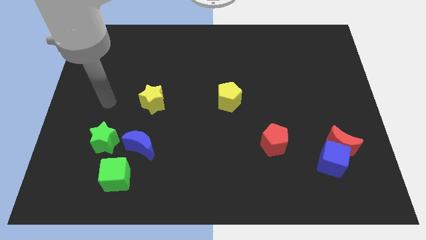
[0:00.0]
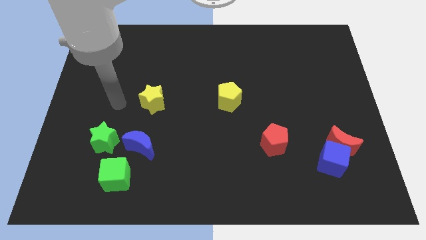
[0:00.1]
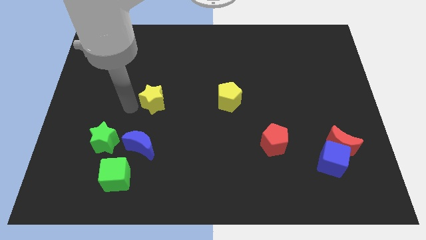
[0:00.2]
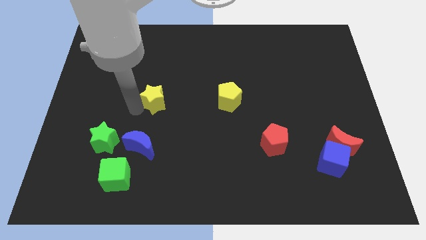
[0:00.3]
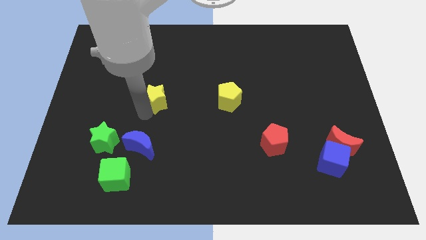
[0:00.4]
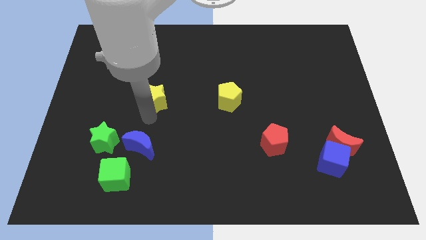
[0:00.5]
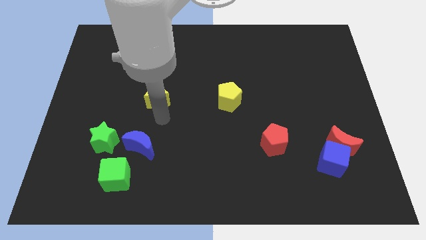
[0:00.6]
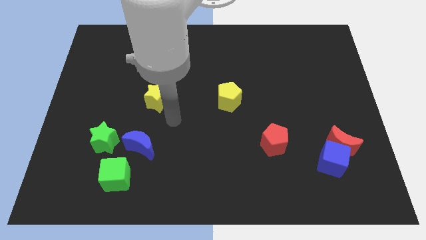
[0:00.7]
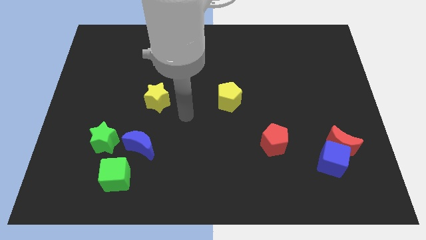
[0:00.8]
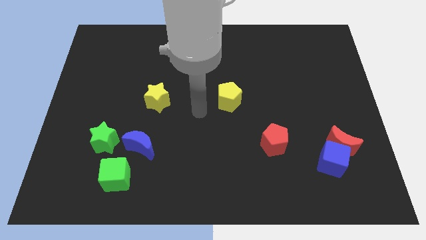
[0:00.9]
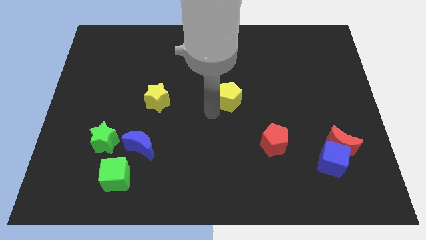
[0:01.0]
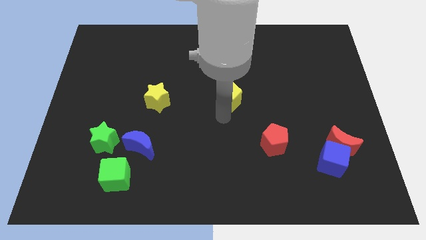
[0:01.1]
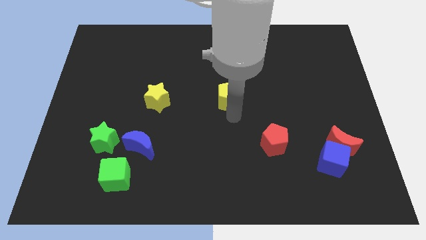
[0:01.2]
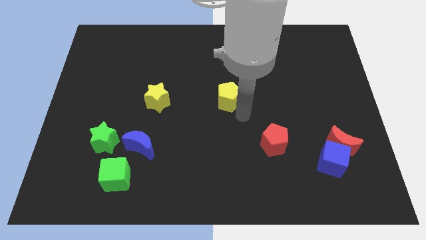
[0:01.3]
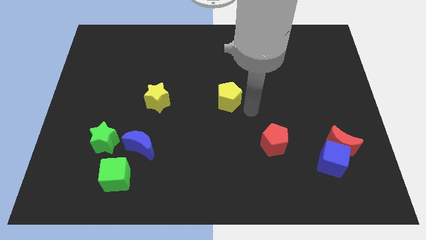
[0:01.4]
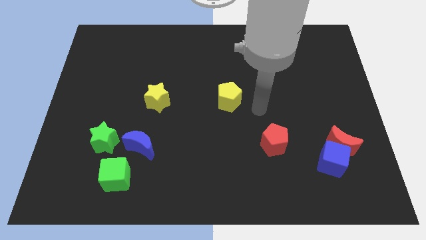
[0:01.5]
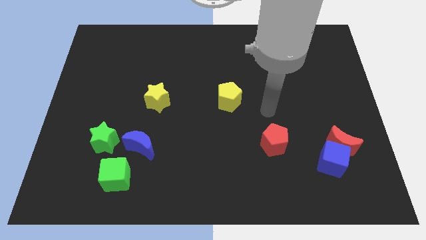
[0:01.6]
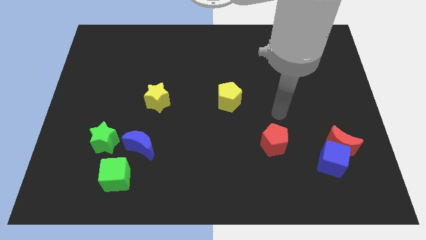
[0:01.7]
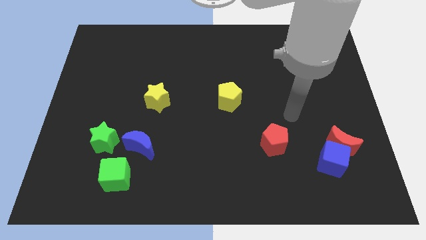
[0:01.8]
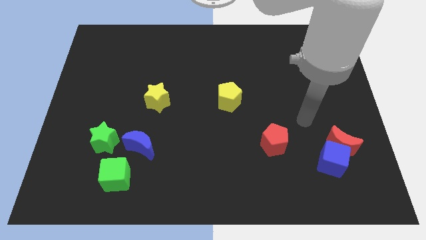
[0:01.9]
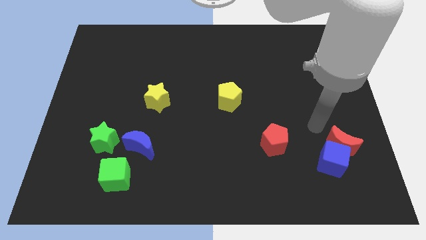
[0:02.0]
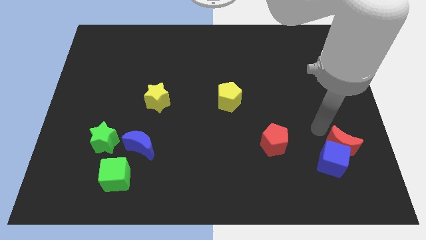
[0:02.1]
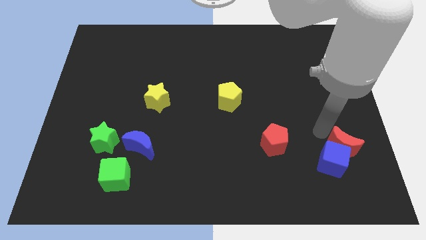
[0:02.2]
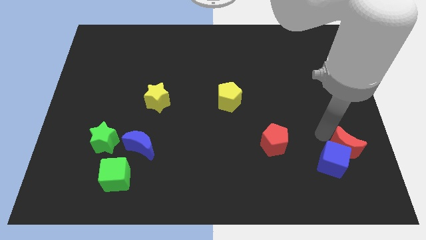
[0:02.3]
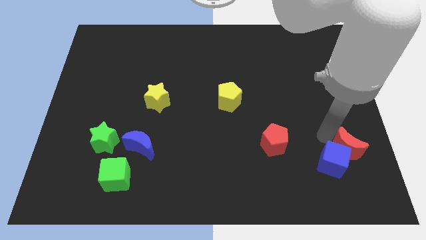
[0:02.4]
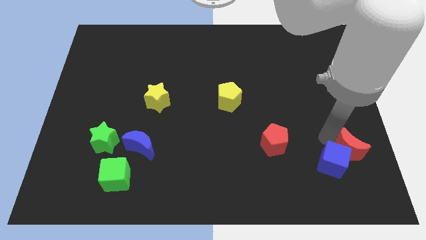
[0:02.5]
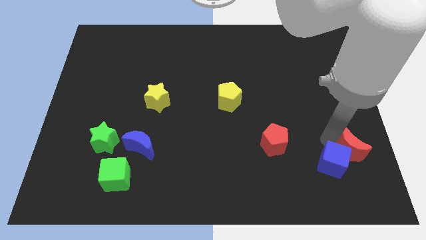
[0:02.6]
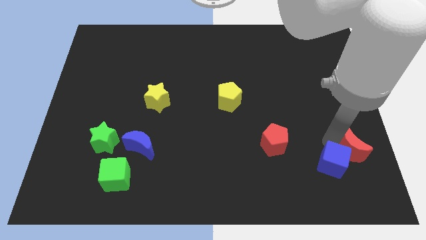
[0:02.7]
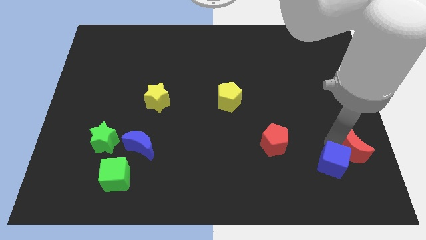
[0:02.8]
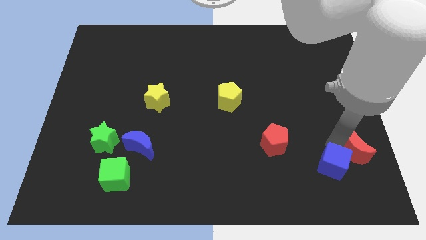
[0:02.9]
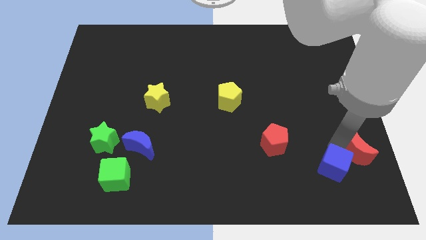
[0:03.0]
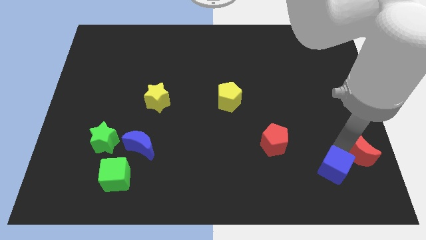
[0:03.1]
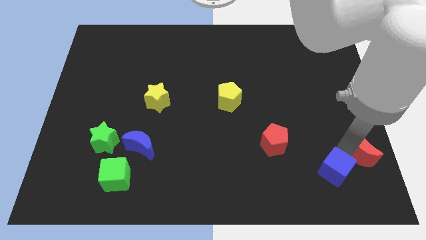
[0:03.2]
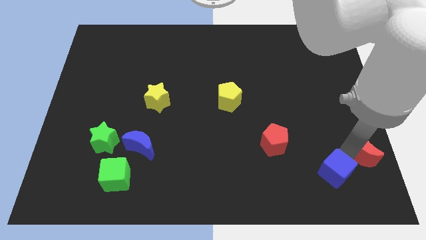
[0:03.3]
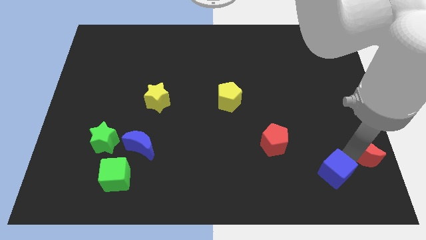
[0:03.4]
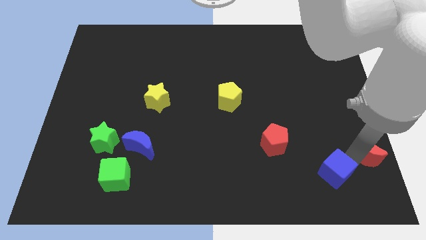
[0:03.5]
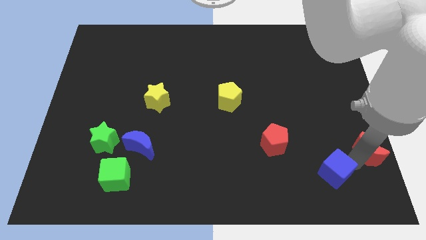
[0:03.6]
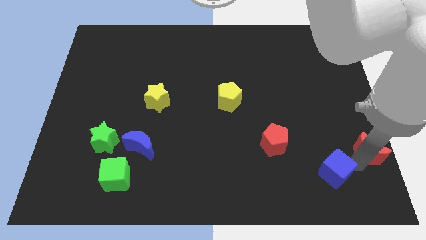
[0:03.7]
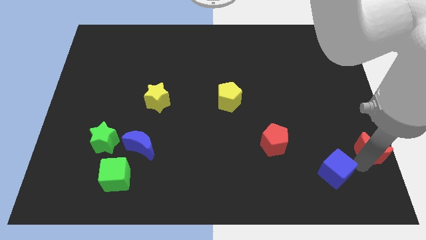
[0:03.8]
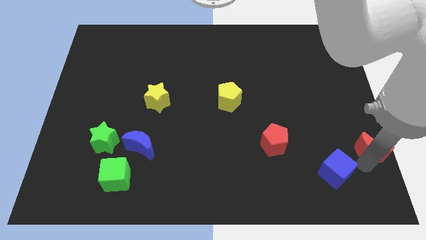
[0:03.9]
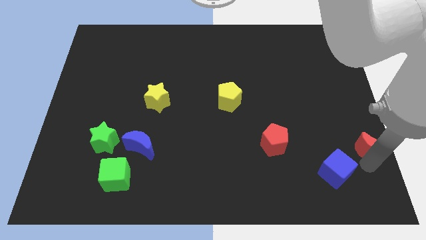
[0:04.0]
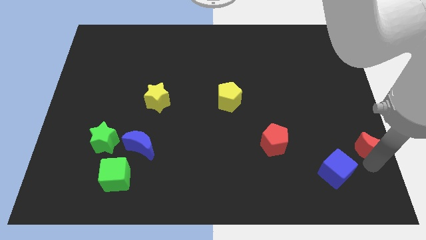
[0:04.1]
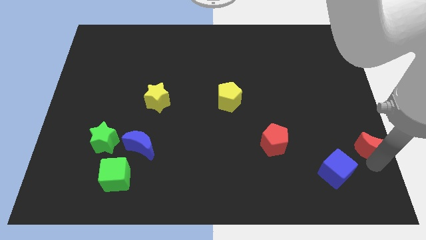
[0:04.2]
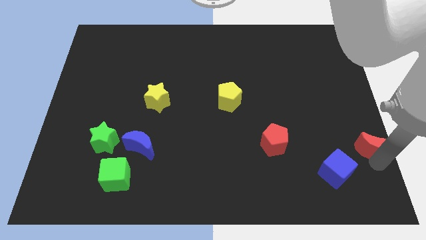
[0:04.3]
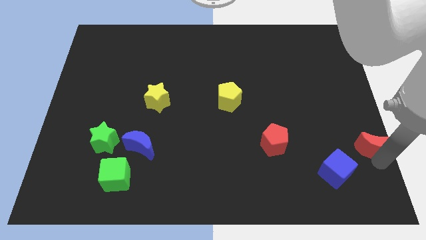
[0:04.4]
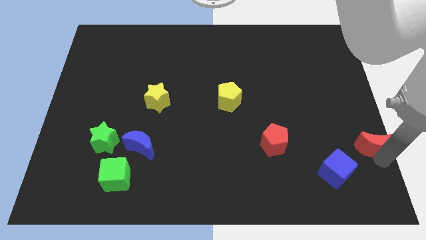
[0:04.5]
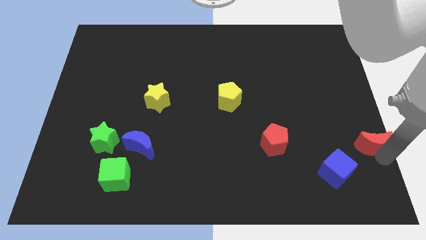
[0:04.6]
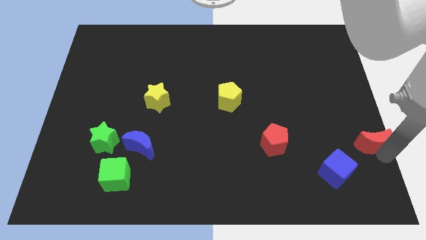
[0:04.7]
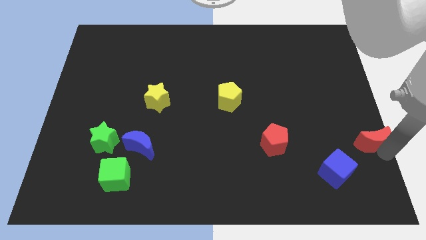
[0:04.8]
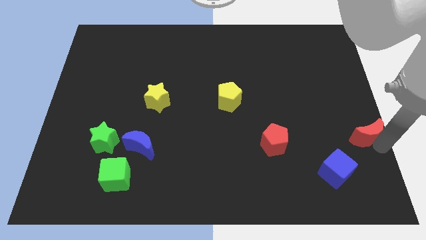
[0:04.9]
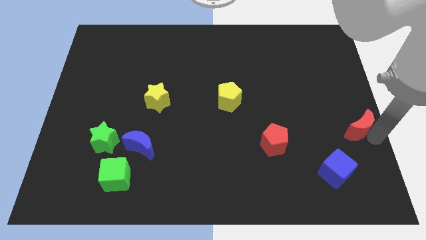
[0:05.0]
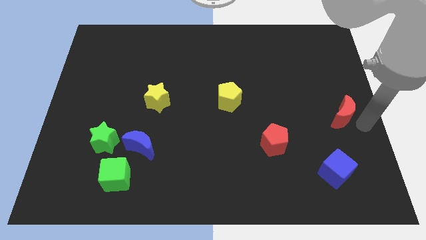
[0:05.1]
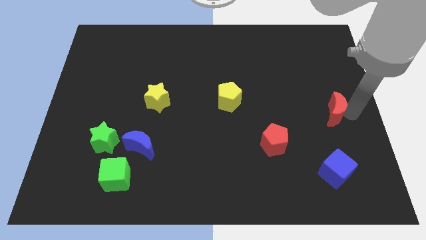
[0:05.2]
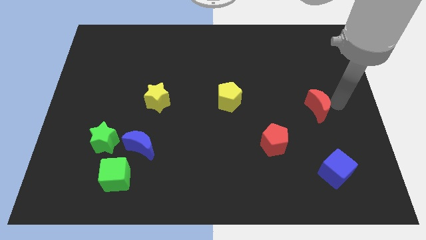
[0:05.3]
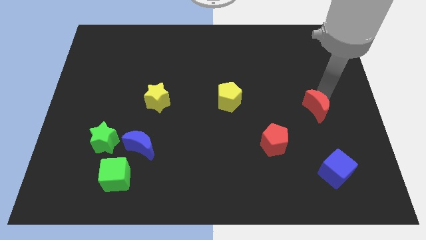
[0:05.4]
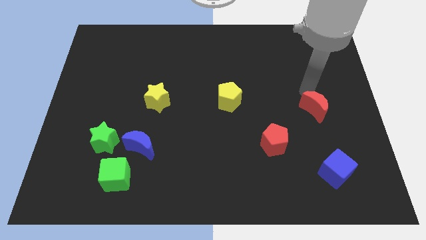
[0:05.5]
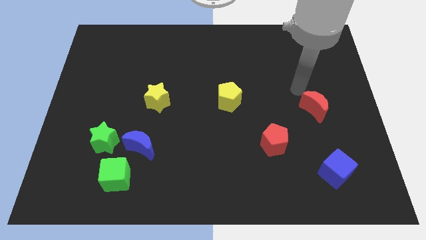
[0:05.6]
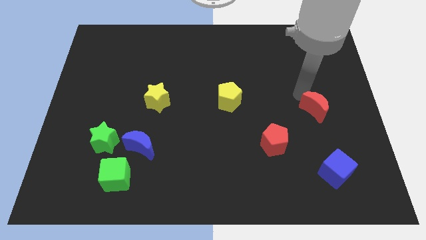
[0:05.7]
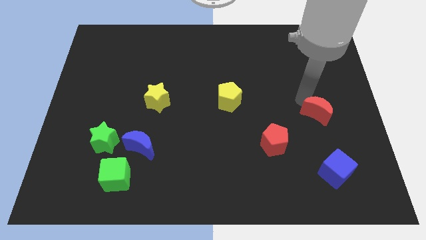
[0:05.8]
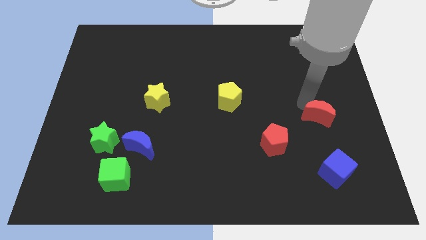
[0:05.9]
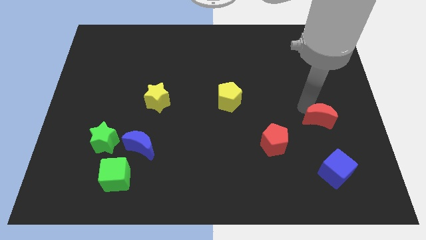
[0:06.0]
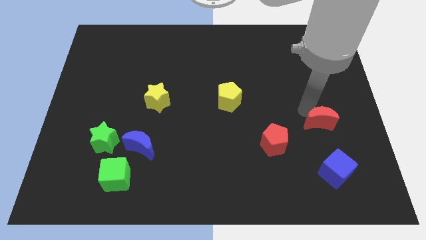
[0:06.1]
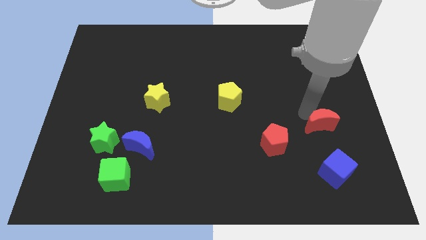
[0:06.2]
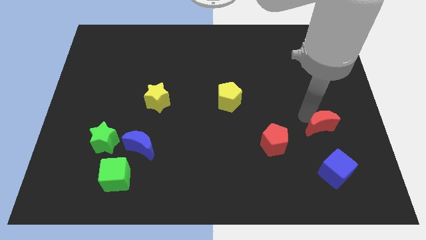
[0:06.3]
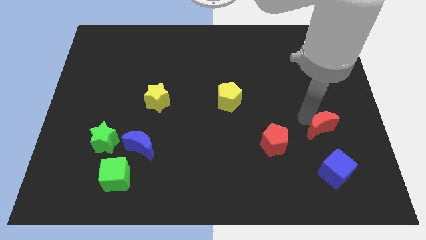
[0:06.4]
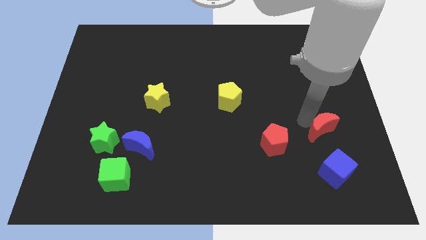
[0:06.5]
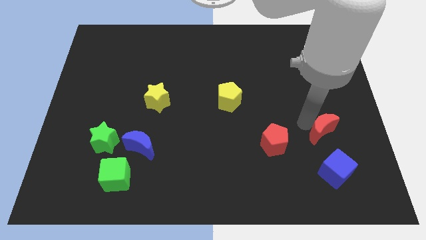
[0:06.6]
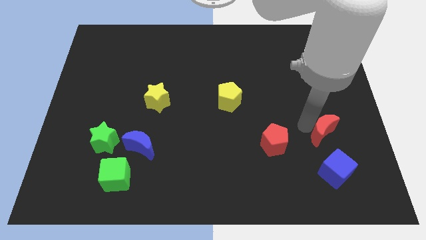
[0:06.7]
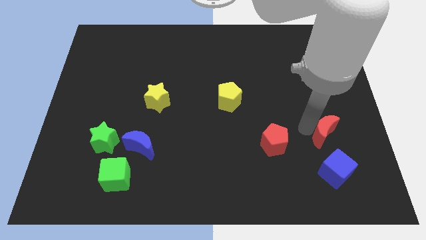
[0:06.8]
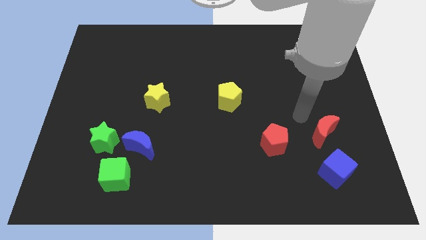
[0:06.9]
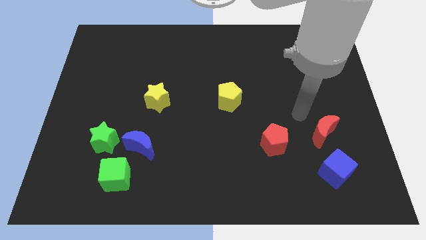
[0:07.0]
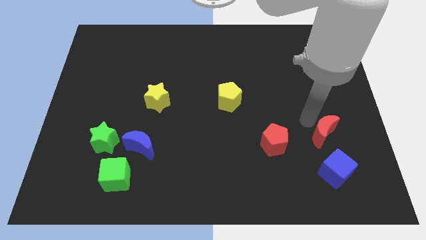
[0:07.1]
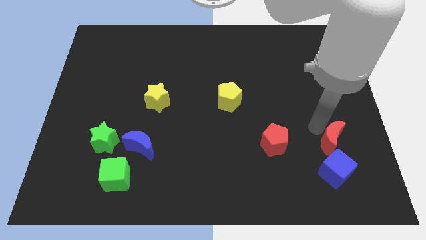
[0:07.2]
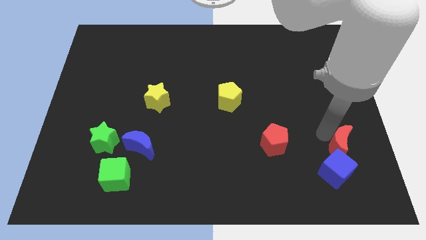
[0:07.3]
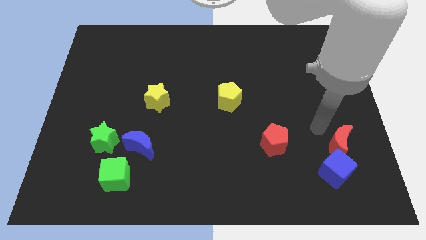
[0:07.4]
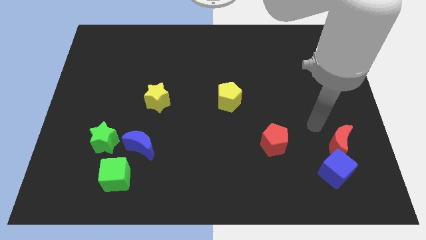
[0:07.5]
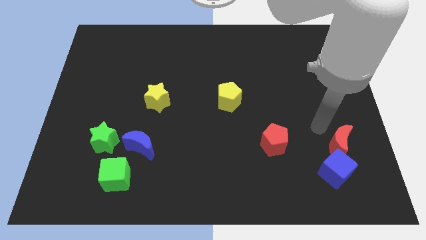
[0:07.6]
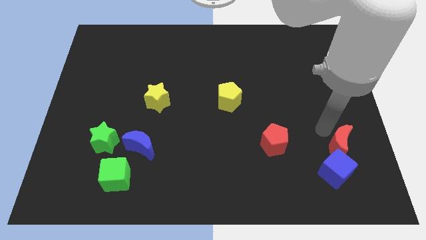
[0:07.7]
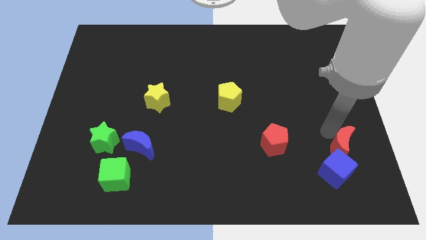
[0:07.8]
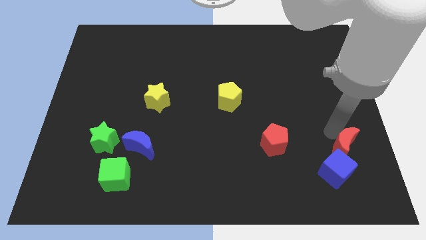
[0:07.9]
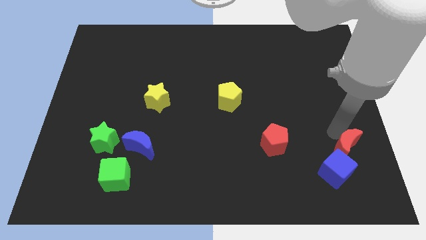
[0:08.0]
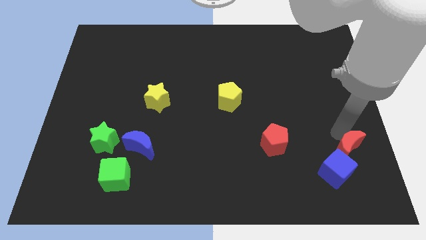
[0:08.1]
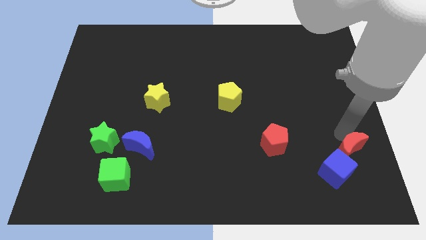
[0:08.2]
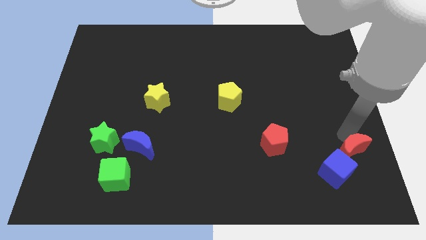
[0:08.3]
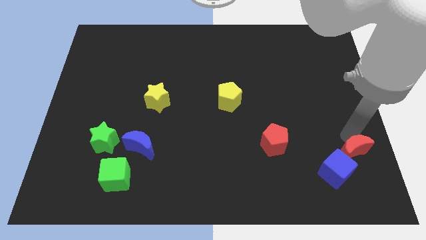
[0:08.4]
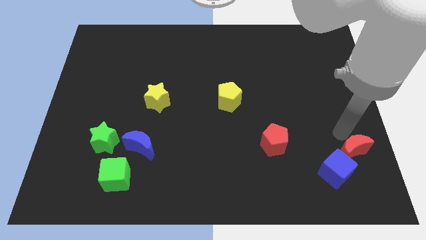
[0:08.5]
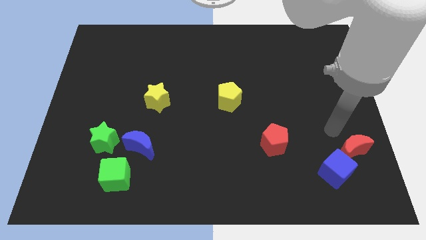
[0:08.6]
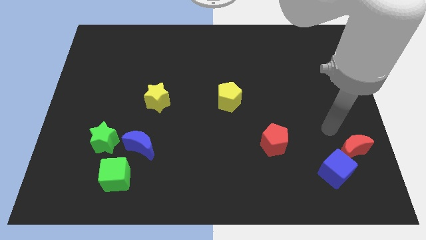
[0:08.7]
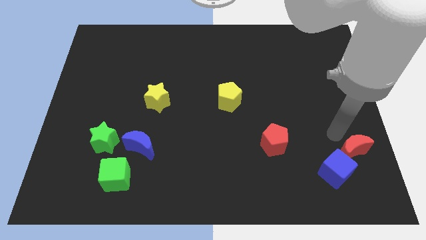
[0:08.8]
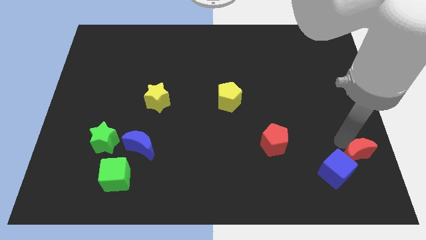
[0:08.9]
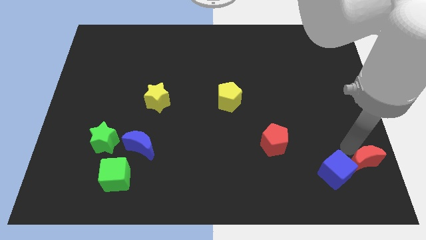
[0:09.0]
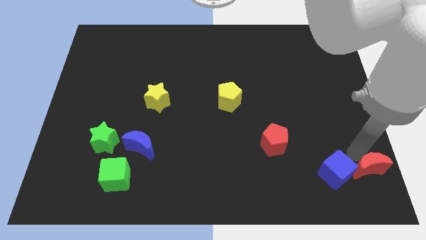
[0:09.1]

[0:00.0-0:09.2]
slide the red moon to the bottom right
